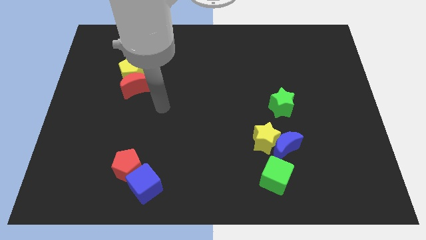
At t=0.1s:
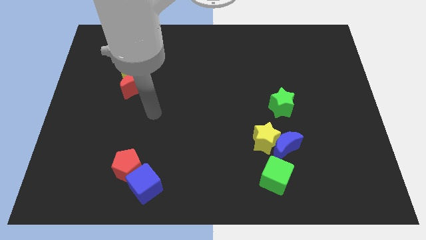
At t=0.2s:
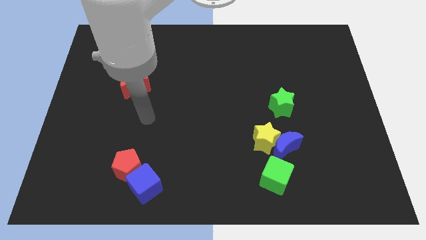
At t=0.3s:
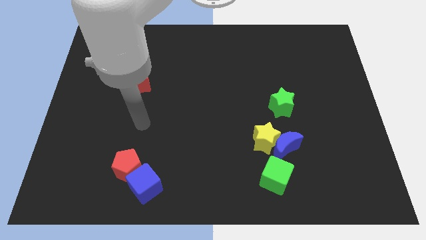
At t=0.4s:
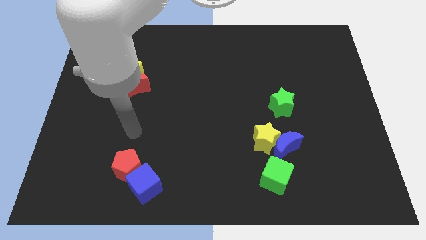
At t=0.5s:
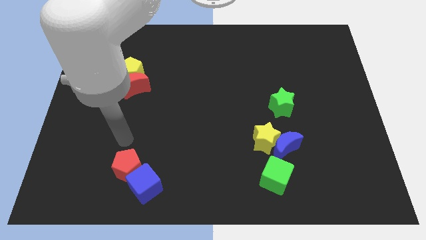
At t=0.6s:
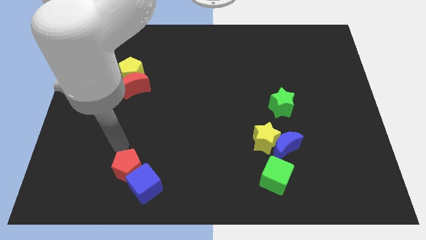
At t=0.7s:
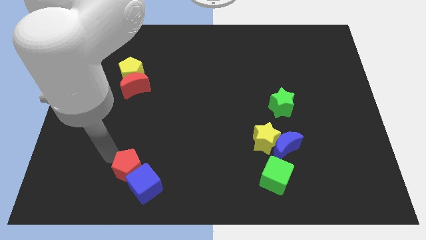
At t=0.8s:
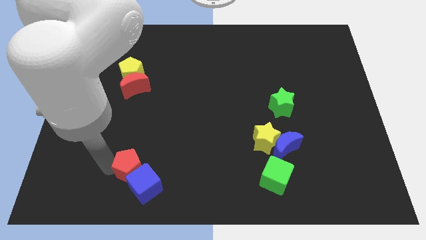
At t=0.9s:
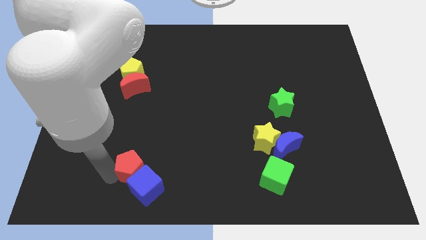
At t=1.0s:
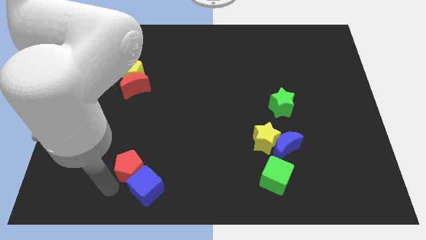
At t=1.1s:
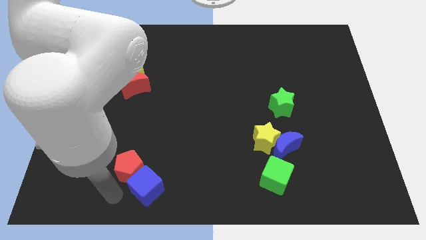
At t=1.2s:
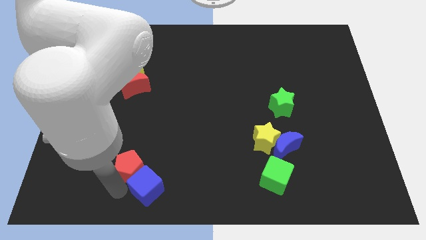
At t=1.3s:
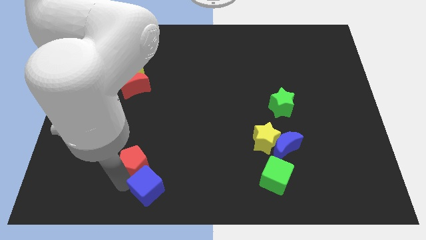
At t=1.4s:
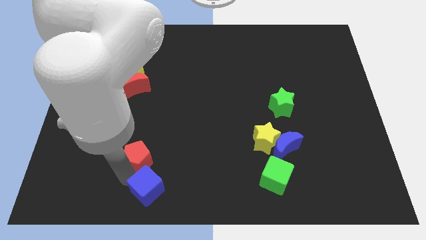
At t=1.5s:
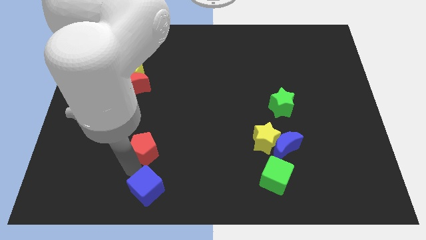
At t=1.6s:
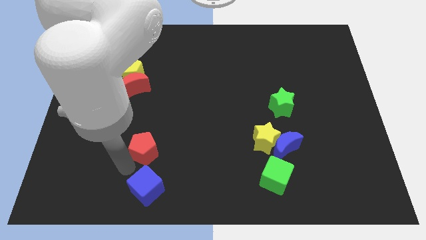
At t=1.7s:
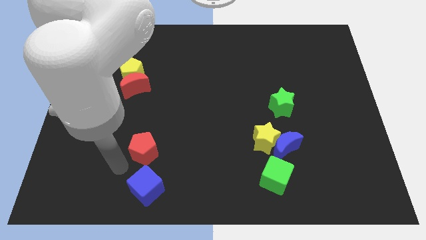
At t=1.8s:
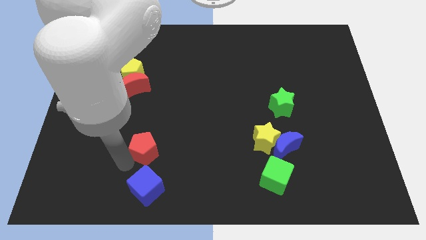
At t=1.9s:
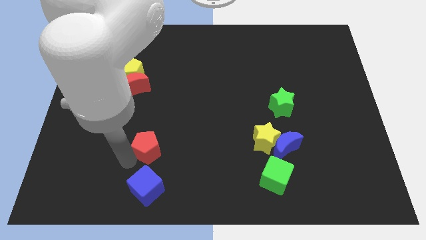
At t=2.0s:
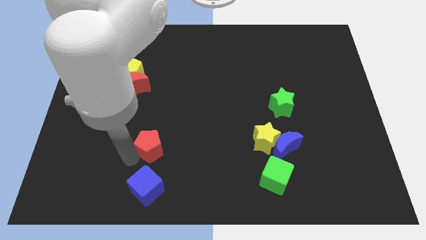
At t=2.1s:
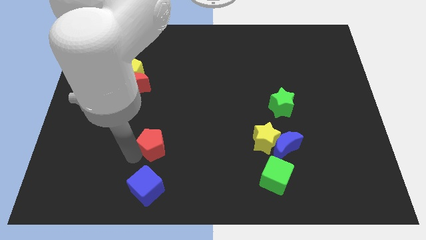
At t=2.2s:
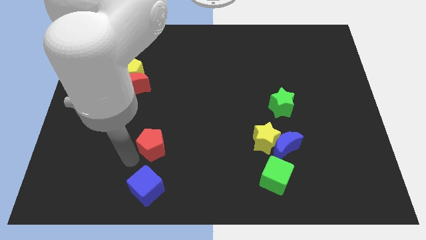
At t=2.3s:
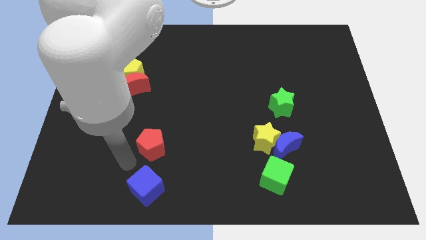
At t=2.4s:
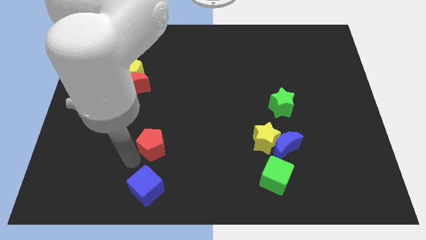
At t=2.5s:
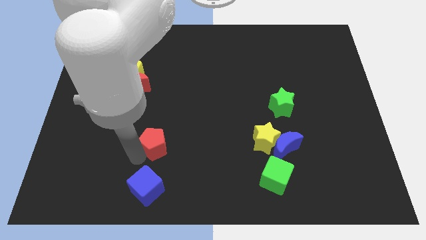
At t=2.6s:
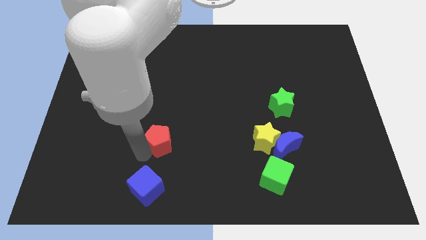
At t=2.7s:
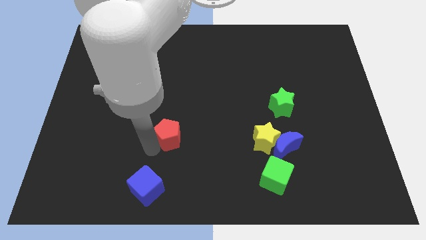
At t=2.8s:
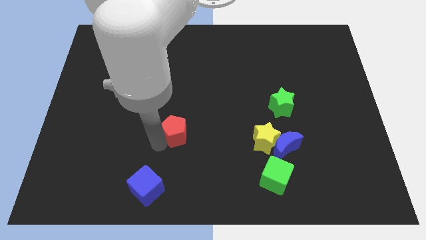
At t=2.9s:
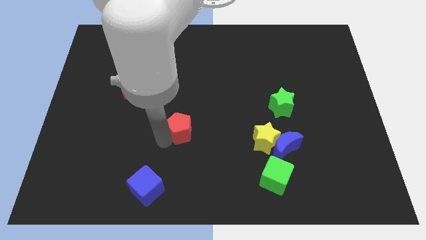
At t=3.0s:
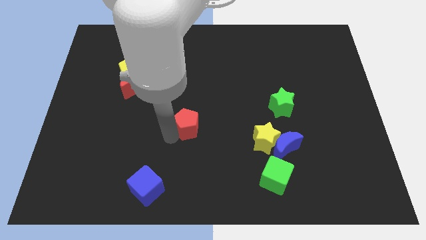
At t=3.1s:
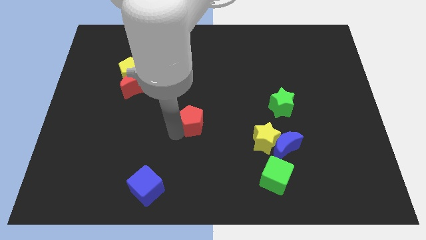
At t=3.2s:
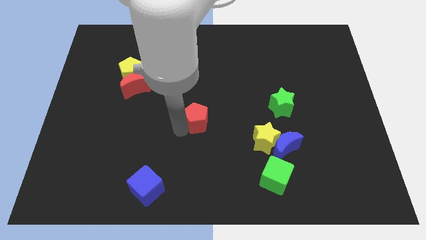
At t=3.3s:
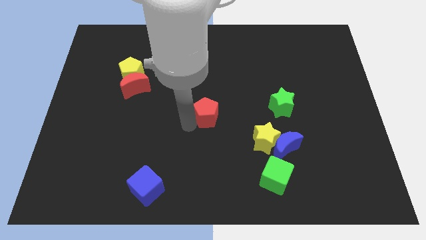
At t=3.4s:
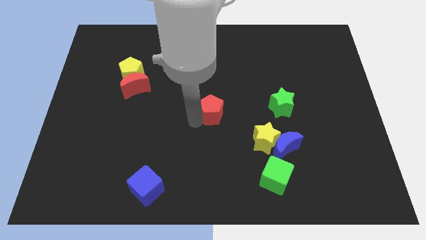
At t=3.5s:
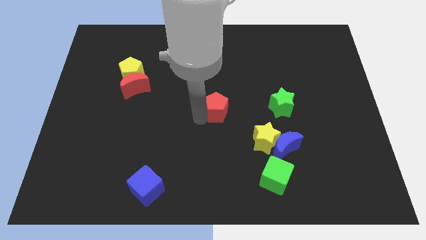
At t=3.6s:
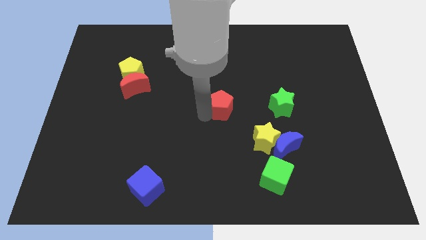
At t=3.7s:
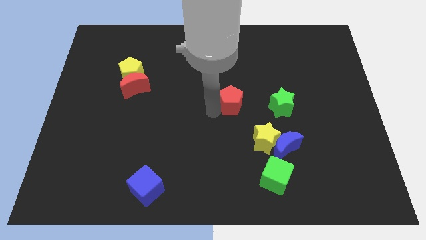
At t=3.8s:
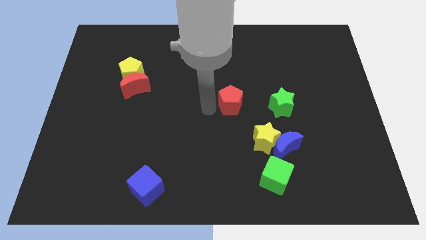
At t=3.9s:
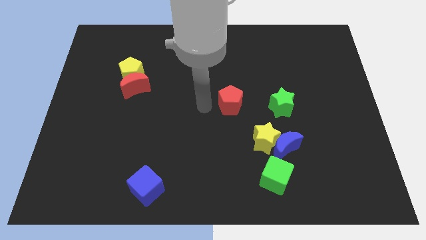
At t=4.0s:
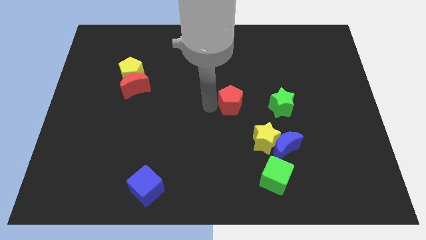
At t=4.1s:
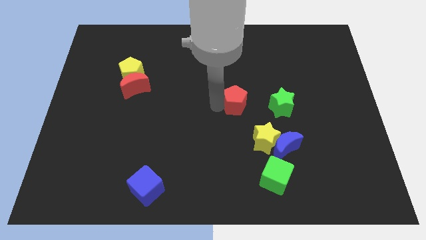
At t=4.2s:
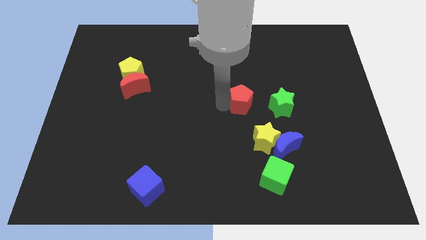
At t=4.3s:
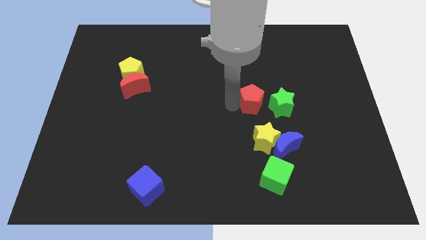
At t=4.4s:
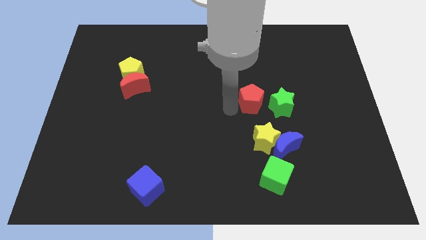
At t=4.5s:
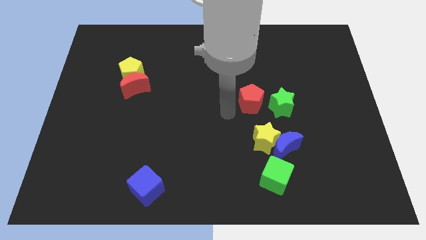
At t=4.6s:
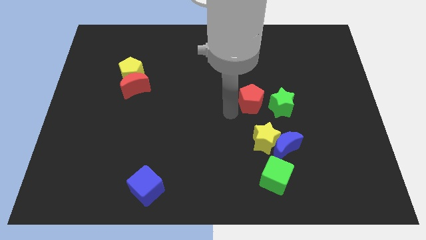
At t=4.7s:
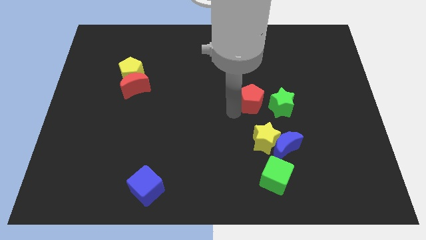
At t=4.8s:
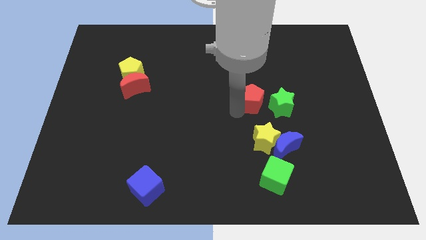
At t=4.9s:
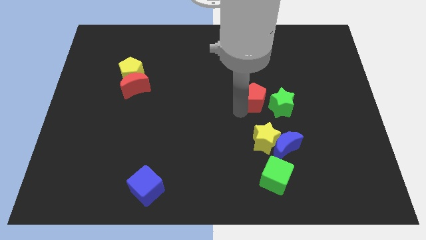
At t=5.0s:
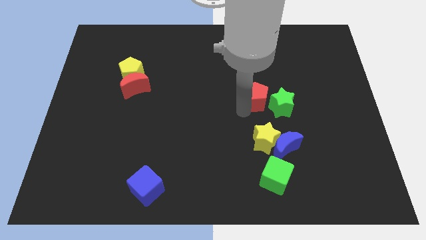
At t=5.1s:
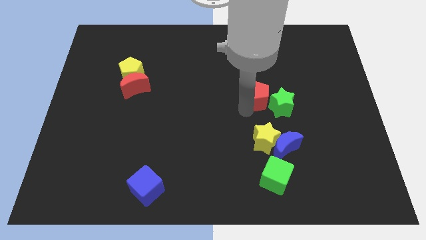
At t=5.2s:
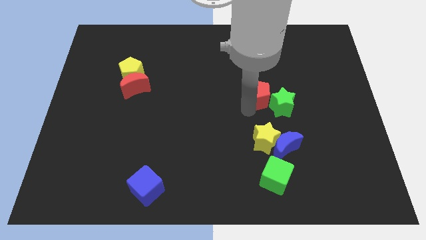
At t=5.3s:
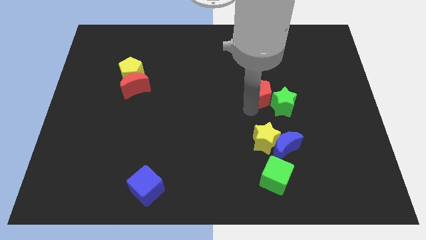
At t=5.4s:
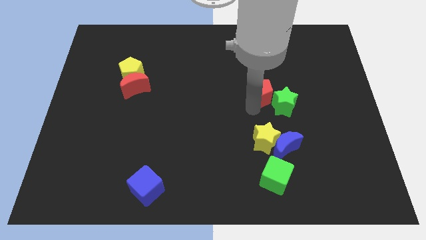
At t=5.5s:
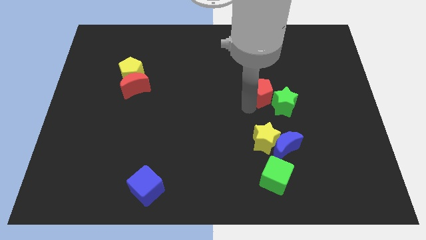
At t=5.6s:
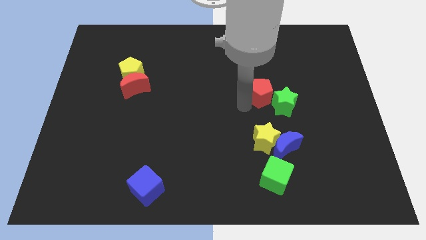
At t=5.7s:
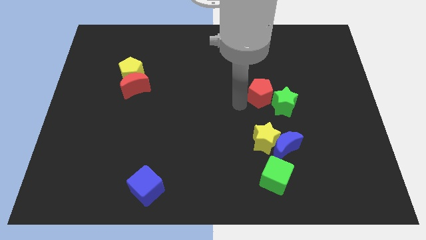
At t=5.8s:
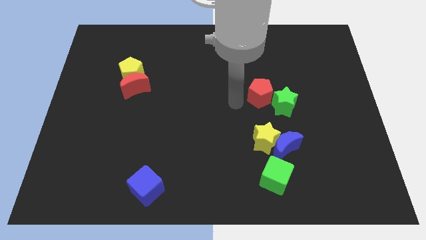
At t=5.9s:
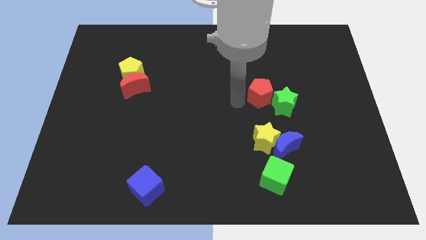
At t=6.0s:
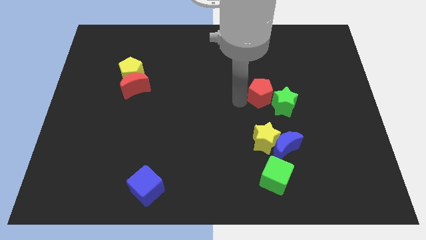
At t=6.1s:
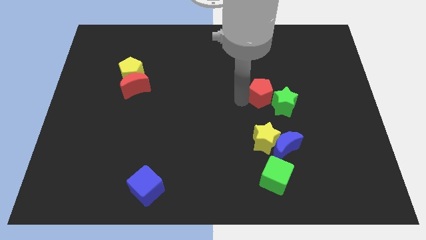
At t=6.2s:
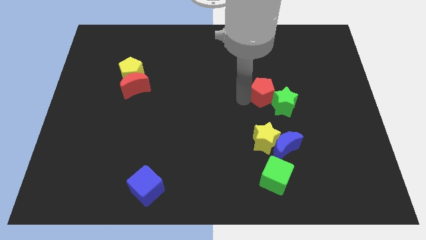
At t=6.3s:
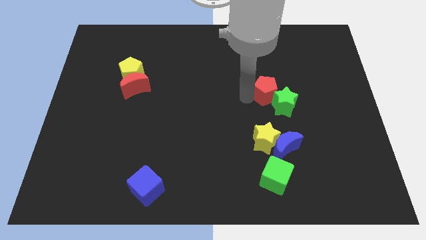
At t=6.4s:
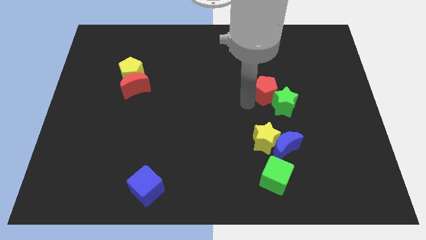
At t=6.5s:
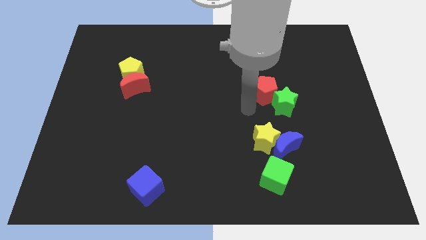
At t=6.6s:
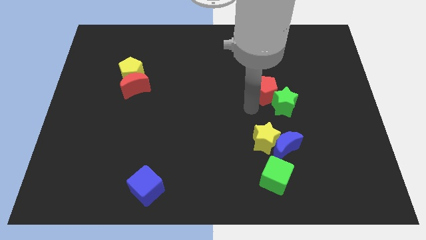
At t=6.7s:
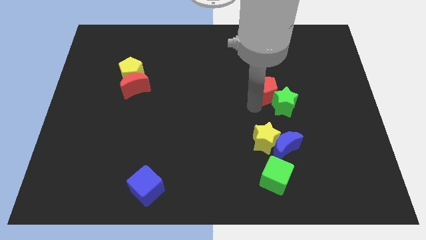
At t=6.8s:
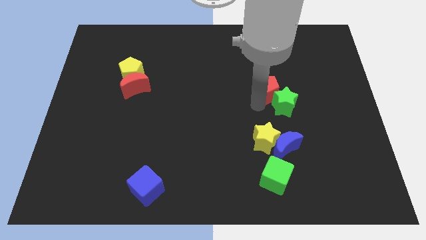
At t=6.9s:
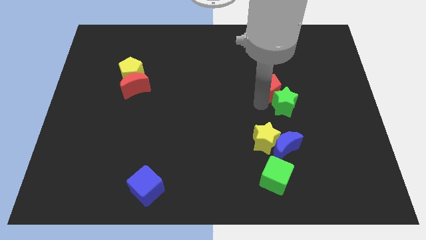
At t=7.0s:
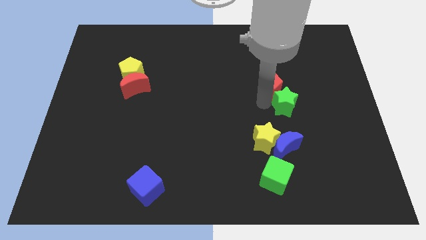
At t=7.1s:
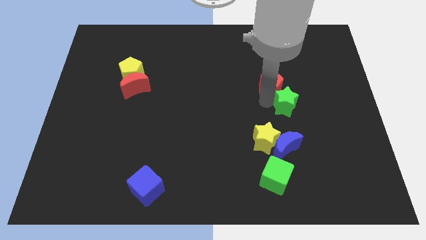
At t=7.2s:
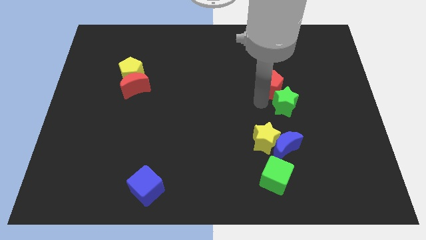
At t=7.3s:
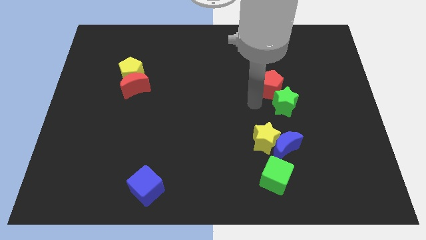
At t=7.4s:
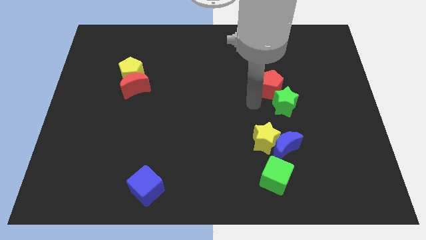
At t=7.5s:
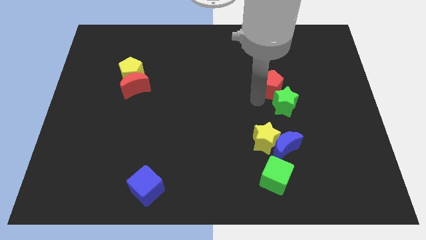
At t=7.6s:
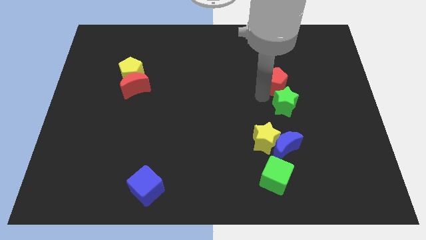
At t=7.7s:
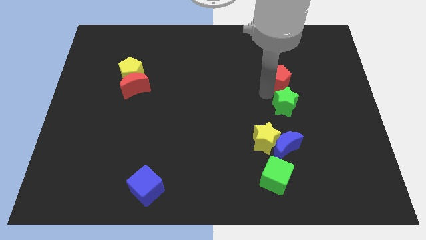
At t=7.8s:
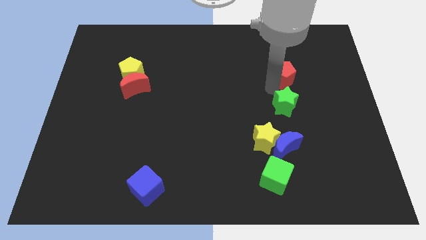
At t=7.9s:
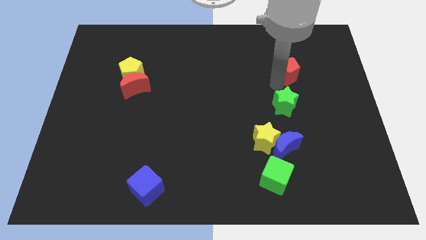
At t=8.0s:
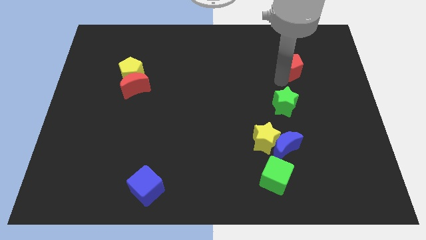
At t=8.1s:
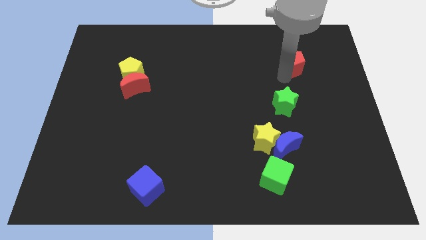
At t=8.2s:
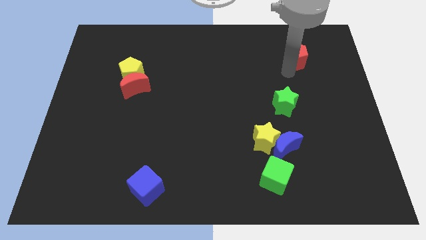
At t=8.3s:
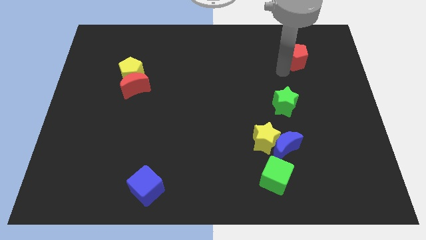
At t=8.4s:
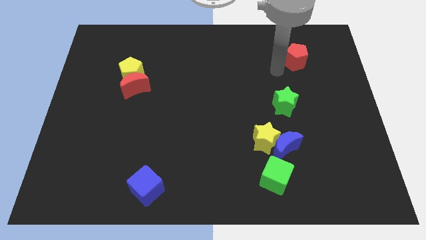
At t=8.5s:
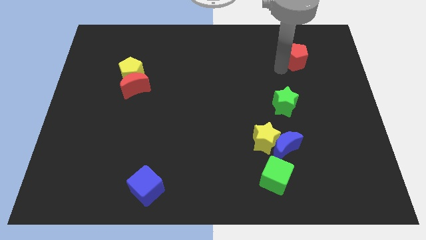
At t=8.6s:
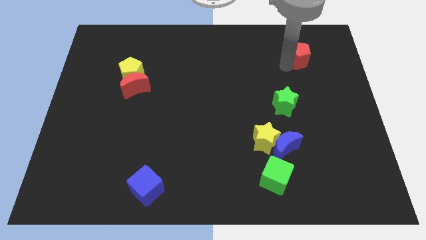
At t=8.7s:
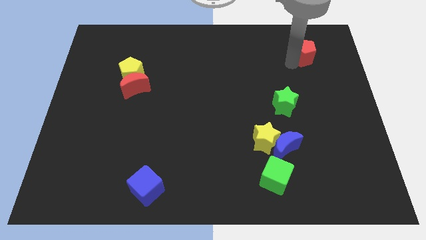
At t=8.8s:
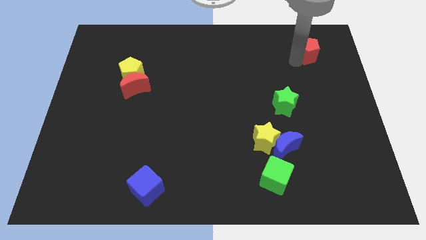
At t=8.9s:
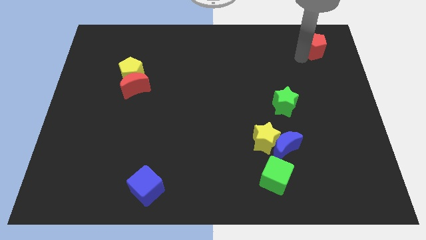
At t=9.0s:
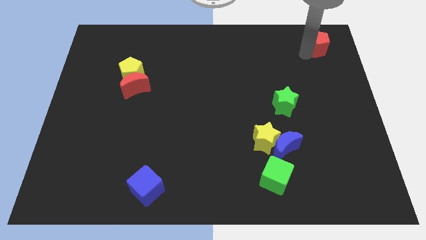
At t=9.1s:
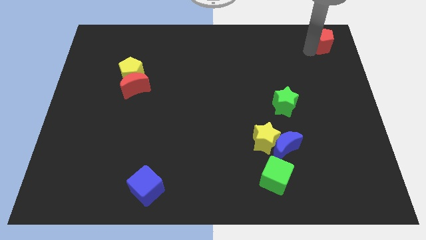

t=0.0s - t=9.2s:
move the red pentagon to the top right of the board
